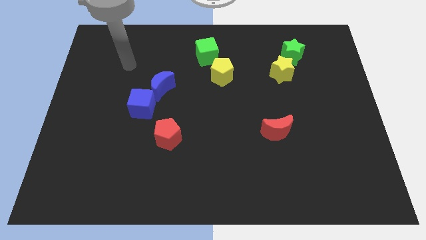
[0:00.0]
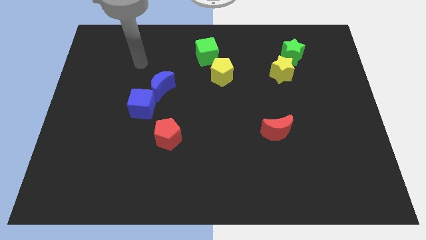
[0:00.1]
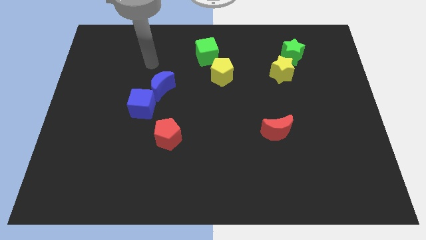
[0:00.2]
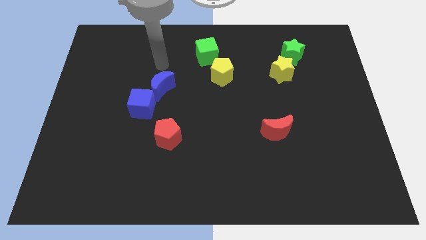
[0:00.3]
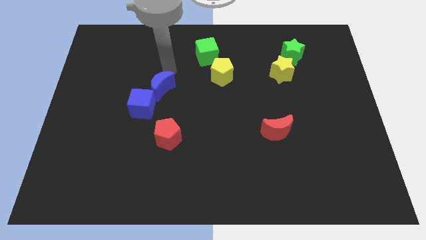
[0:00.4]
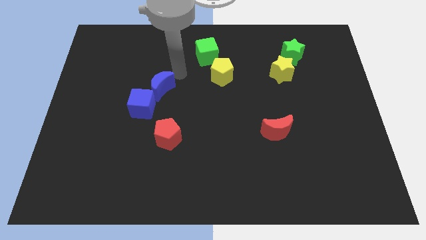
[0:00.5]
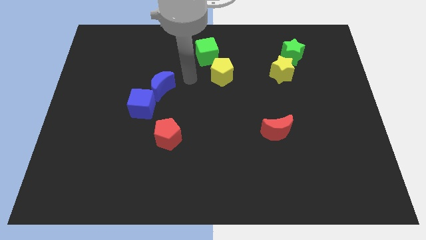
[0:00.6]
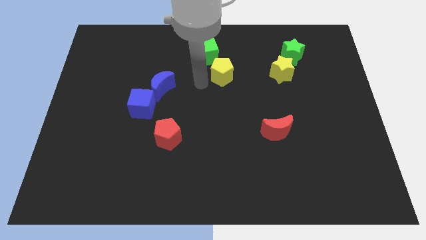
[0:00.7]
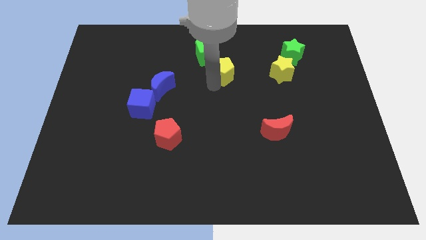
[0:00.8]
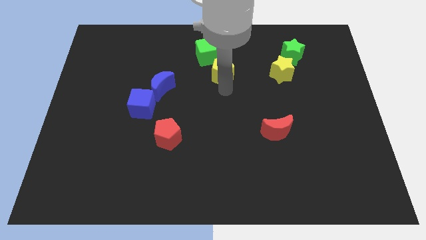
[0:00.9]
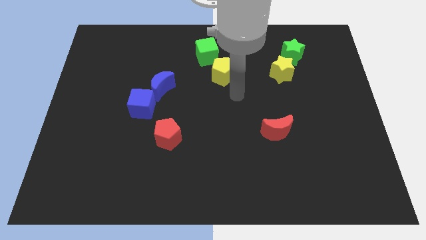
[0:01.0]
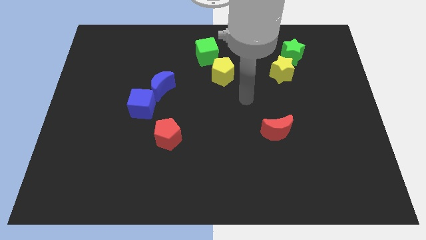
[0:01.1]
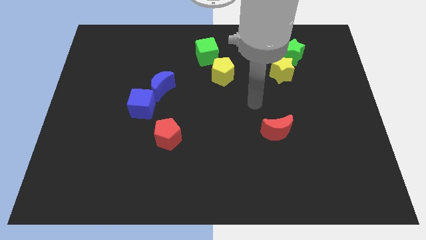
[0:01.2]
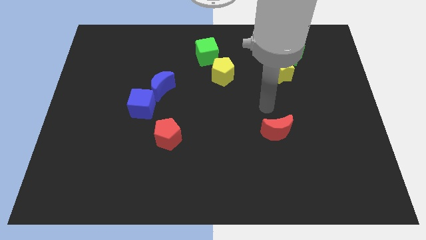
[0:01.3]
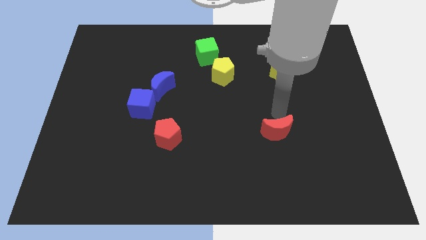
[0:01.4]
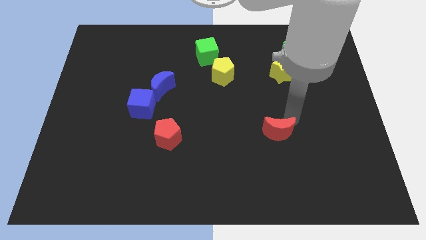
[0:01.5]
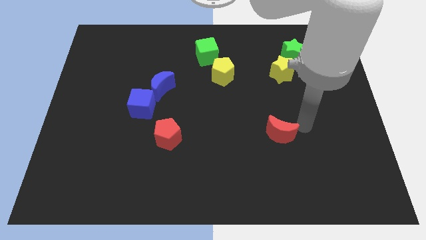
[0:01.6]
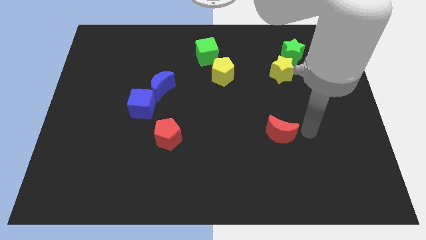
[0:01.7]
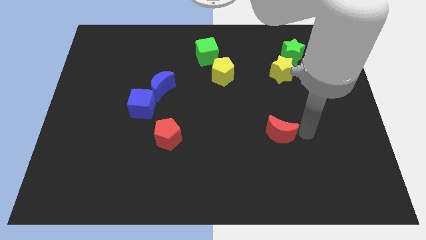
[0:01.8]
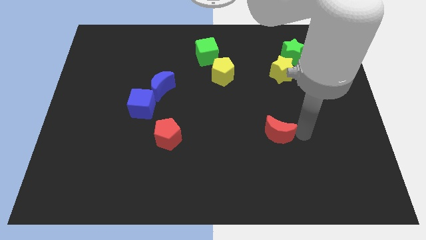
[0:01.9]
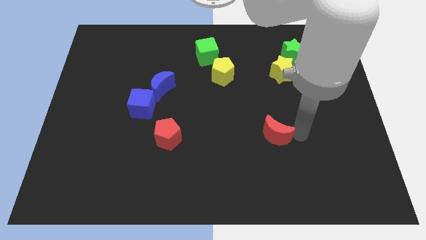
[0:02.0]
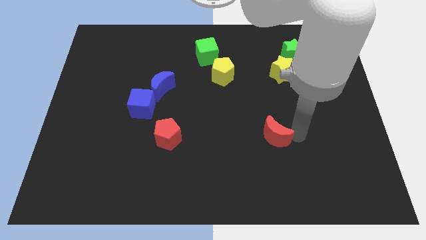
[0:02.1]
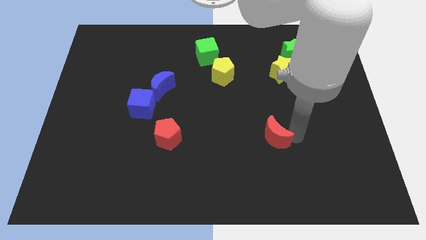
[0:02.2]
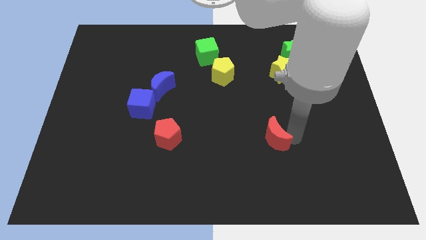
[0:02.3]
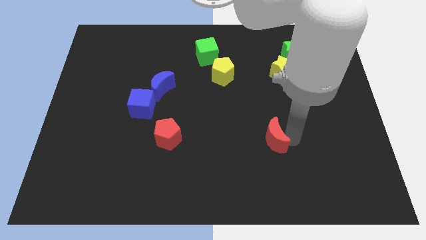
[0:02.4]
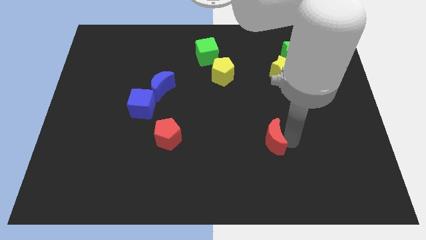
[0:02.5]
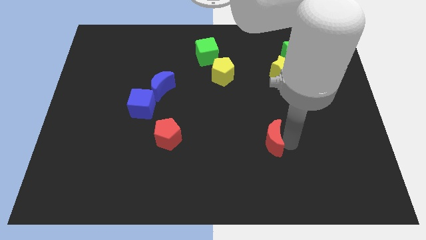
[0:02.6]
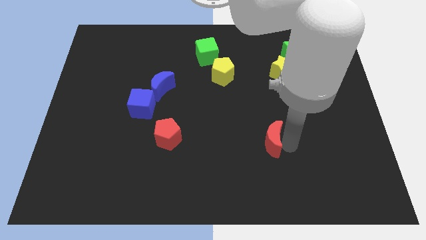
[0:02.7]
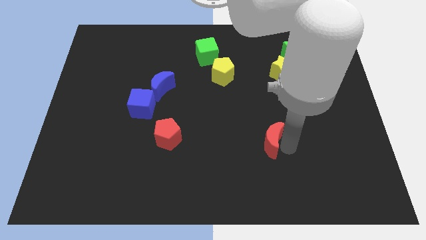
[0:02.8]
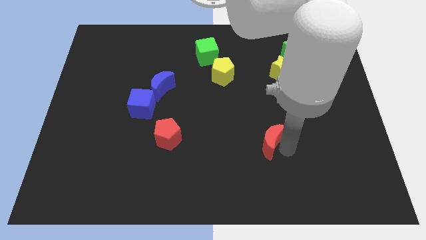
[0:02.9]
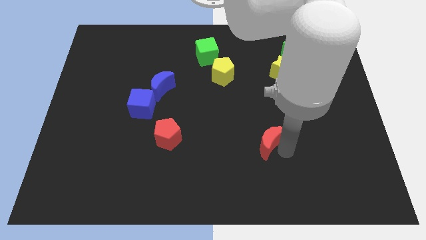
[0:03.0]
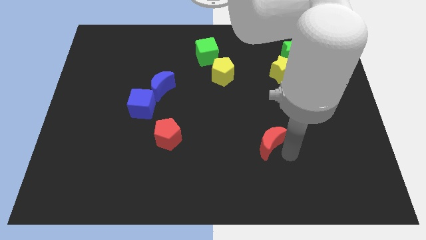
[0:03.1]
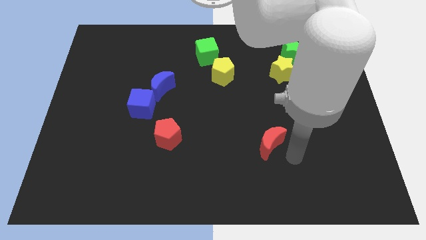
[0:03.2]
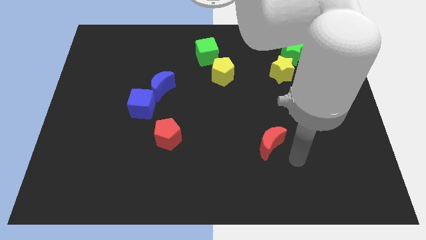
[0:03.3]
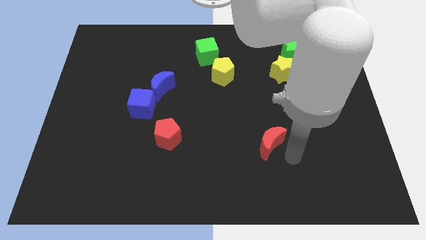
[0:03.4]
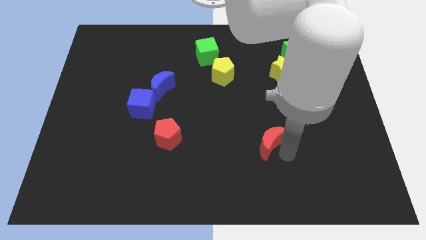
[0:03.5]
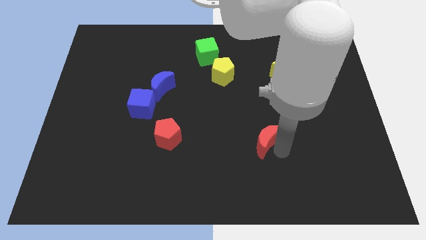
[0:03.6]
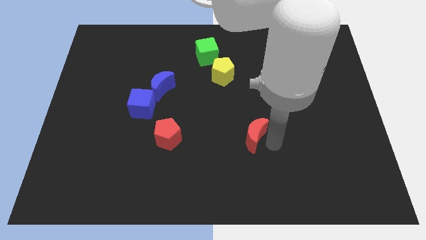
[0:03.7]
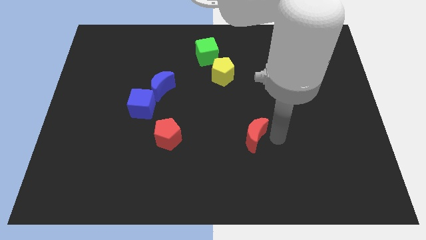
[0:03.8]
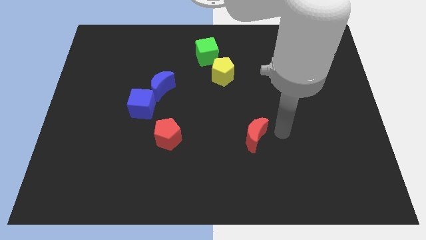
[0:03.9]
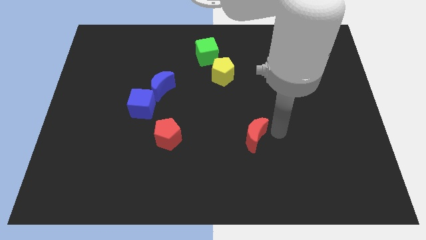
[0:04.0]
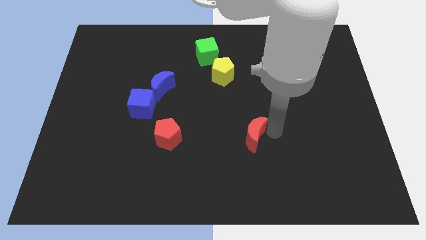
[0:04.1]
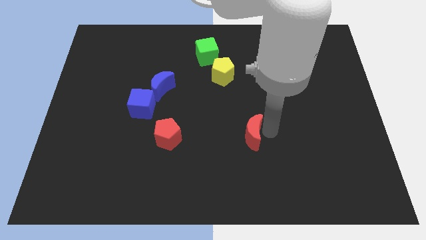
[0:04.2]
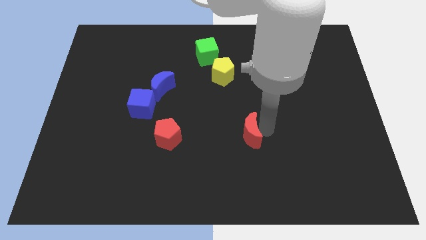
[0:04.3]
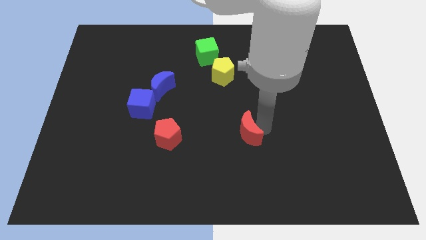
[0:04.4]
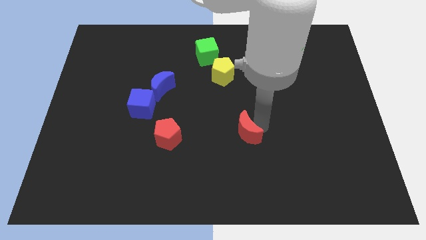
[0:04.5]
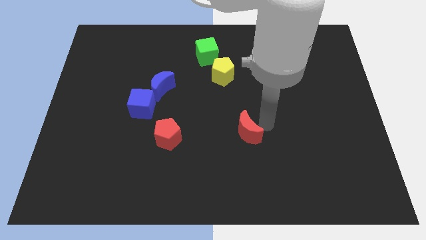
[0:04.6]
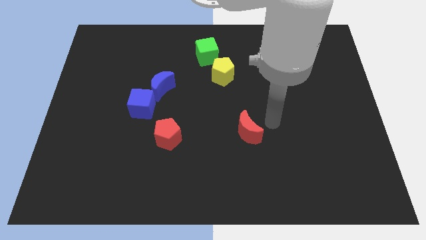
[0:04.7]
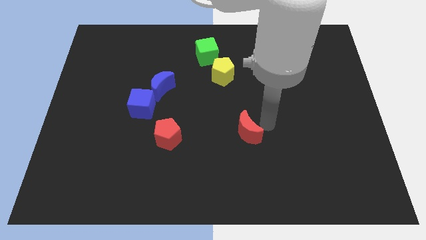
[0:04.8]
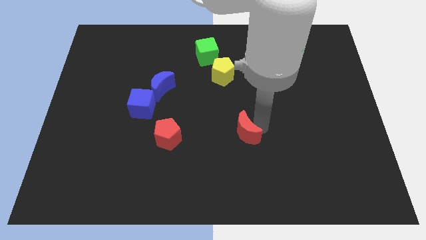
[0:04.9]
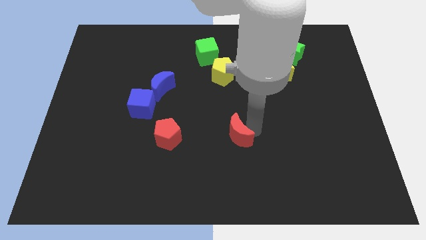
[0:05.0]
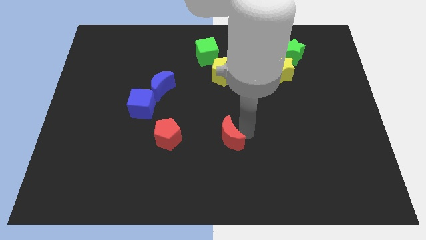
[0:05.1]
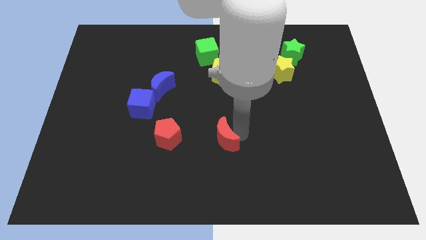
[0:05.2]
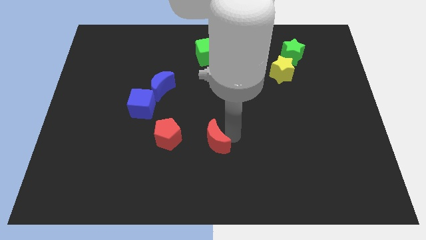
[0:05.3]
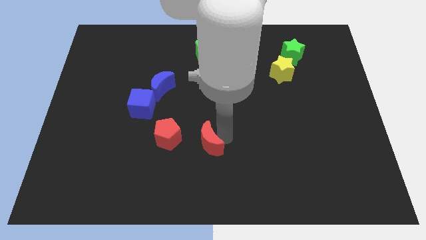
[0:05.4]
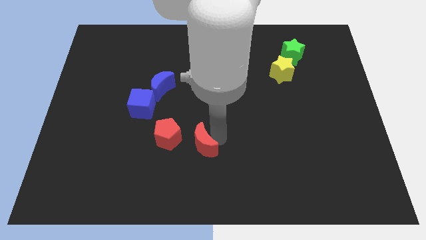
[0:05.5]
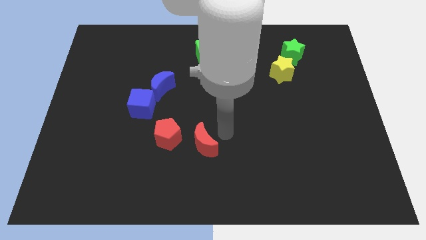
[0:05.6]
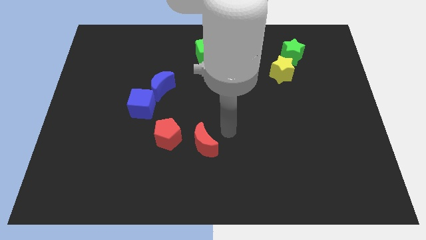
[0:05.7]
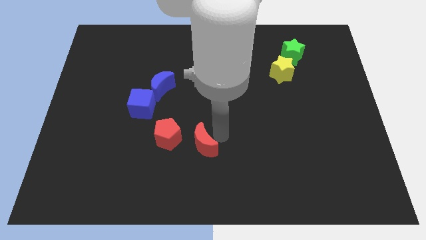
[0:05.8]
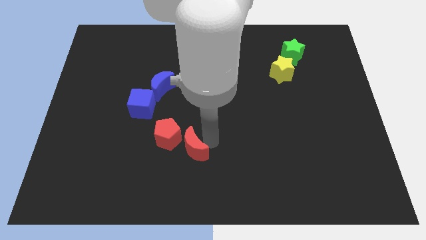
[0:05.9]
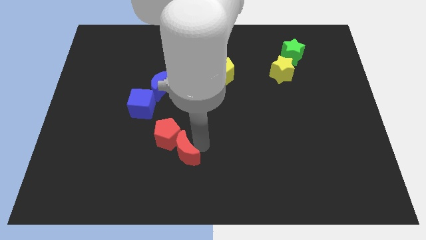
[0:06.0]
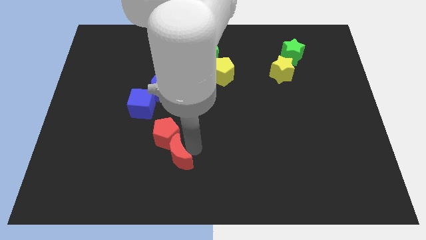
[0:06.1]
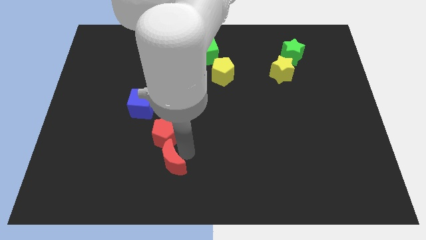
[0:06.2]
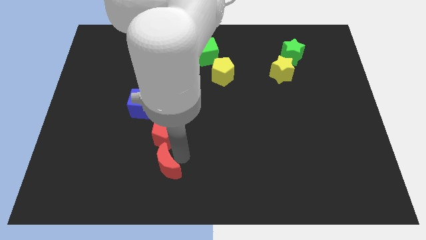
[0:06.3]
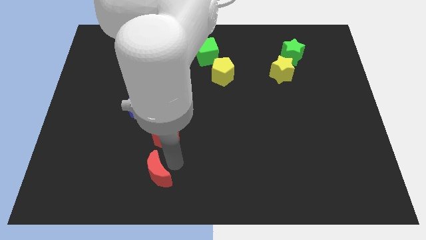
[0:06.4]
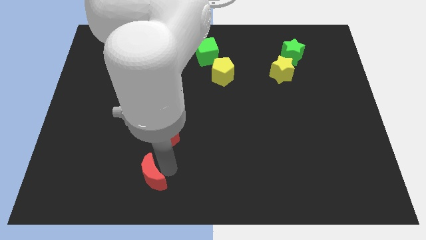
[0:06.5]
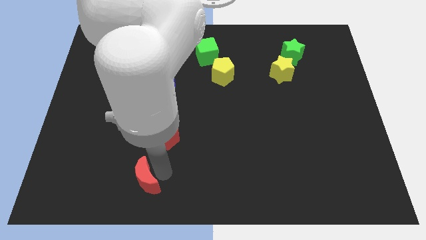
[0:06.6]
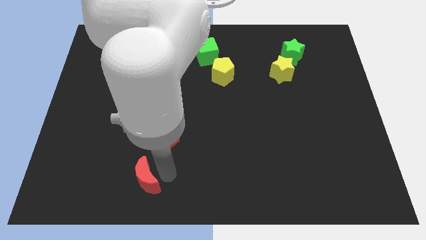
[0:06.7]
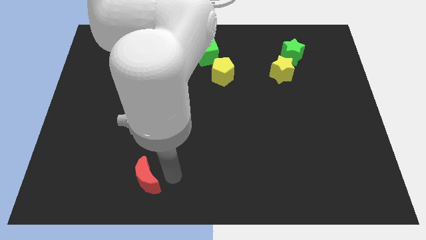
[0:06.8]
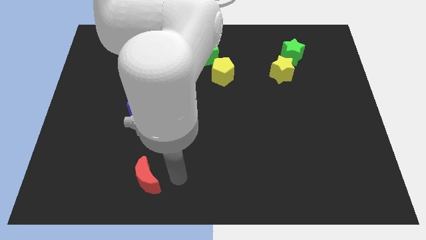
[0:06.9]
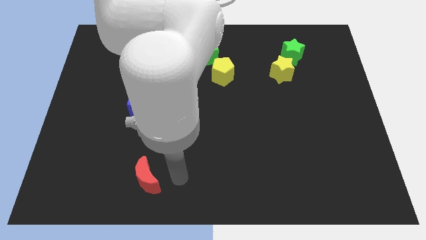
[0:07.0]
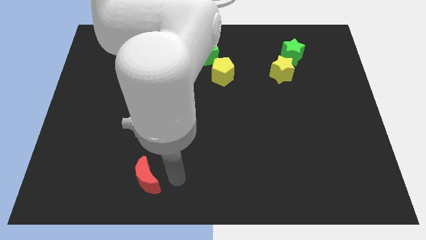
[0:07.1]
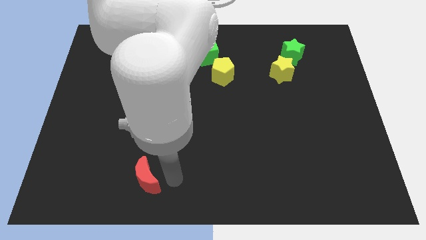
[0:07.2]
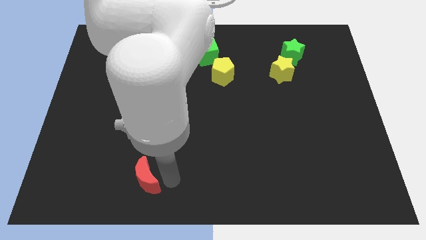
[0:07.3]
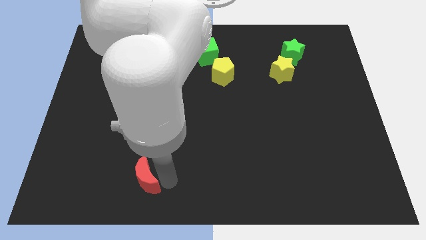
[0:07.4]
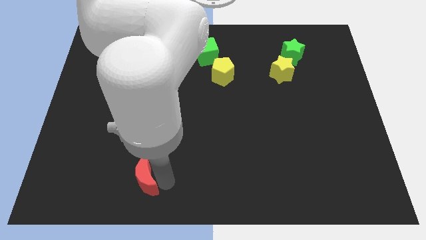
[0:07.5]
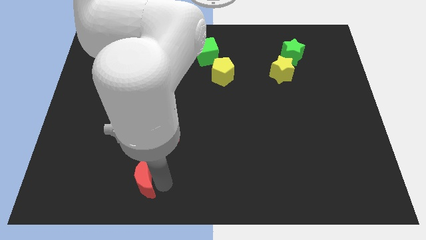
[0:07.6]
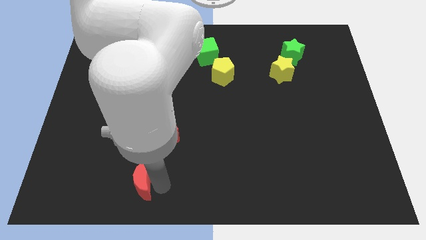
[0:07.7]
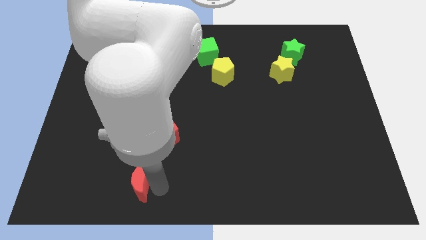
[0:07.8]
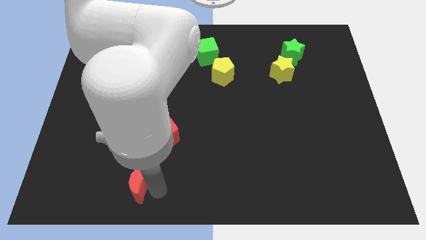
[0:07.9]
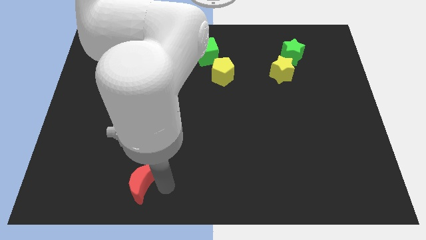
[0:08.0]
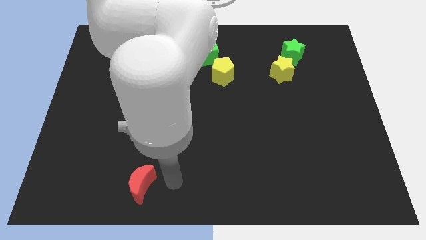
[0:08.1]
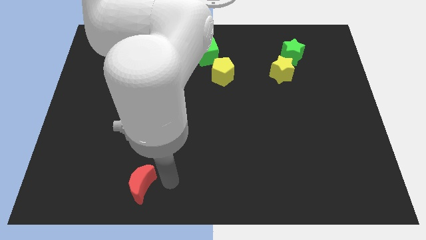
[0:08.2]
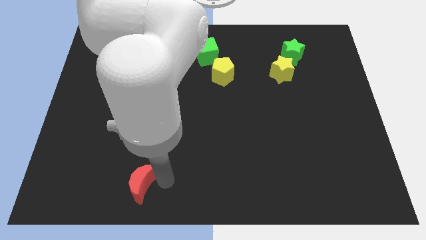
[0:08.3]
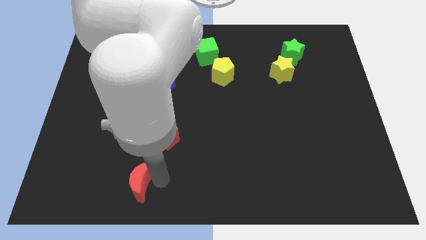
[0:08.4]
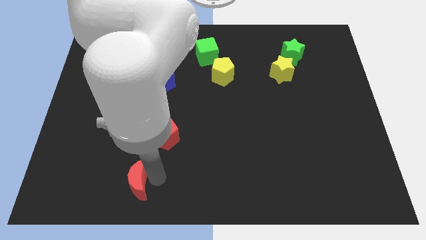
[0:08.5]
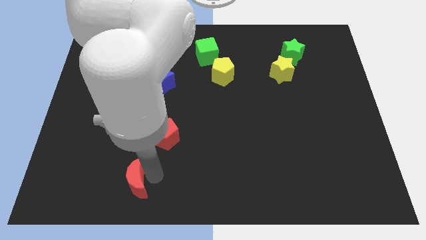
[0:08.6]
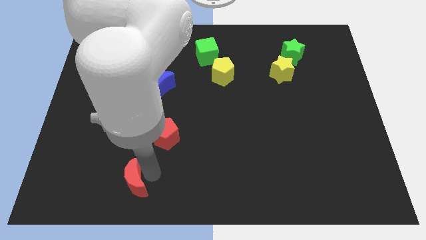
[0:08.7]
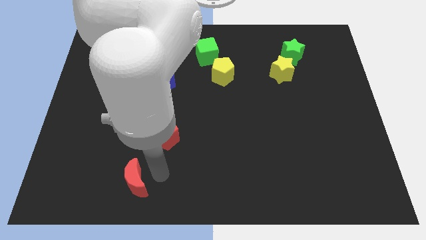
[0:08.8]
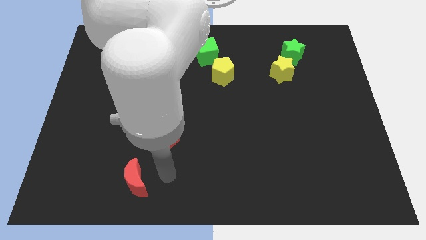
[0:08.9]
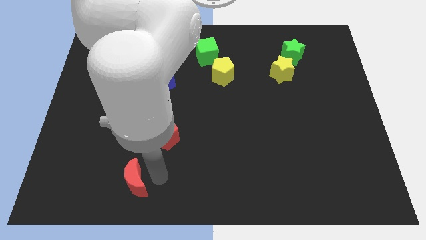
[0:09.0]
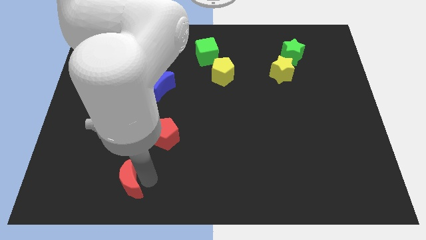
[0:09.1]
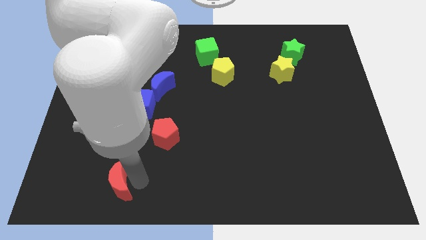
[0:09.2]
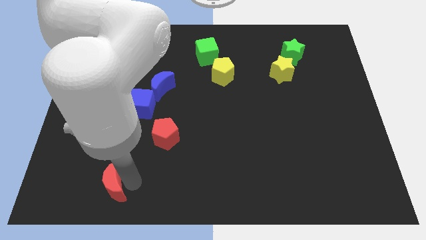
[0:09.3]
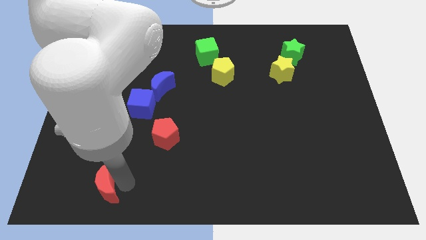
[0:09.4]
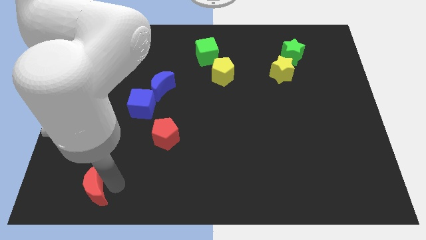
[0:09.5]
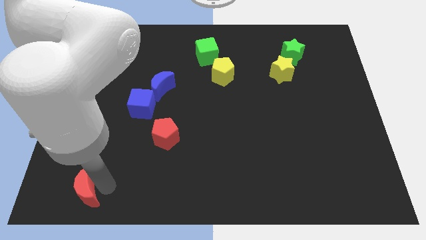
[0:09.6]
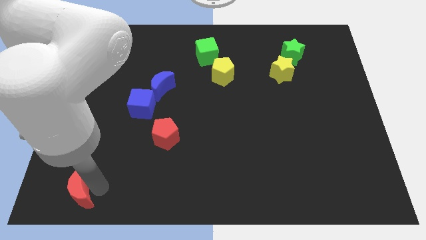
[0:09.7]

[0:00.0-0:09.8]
move the red moon to the bottom left of the board
